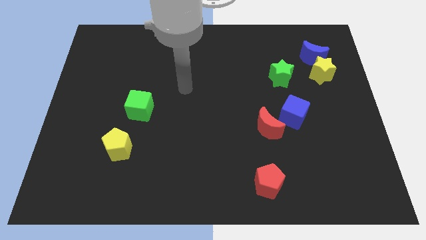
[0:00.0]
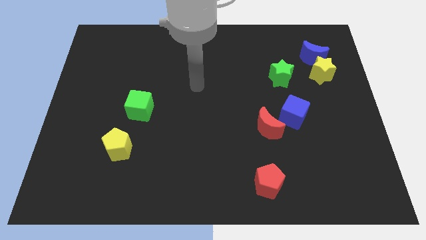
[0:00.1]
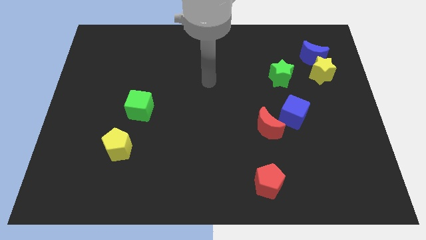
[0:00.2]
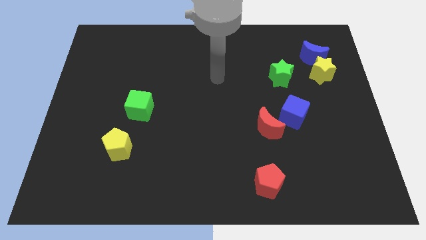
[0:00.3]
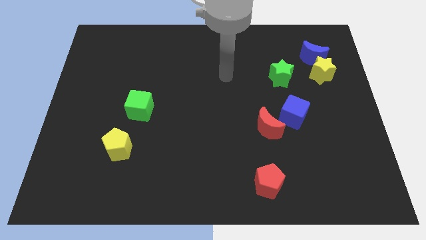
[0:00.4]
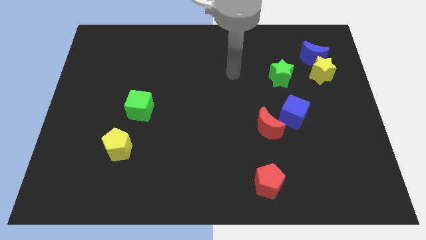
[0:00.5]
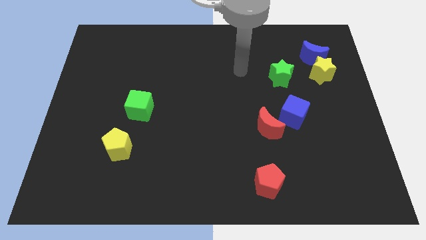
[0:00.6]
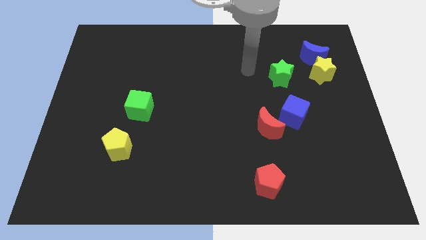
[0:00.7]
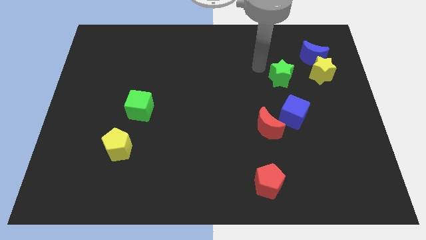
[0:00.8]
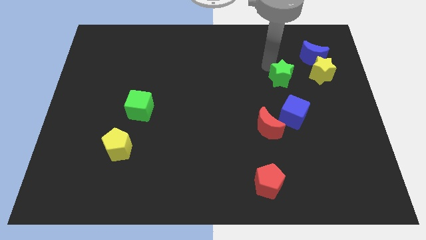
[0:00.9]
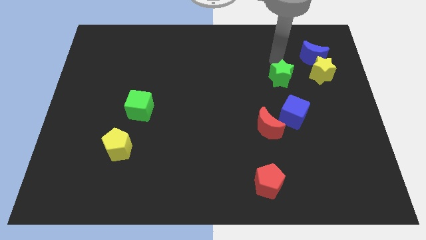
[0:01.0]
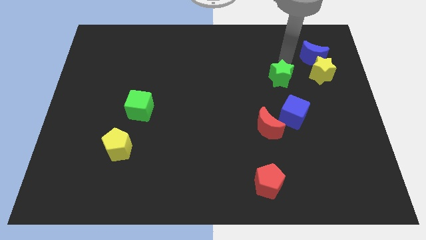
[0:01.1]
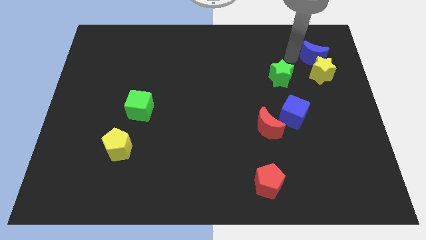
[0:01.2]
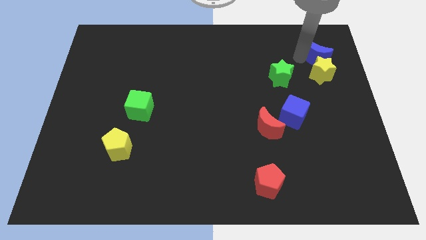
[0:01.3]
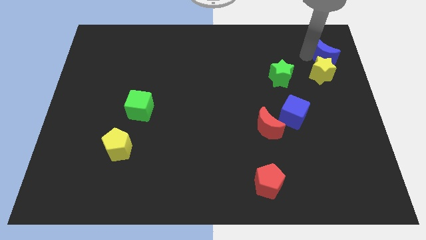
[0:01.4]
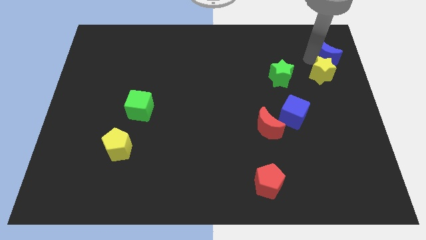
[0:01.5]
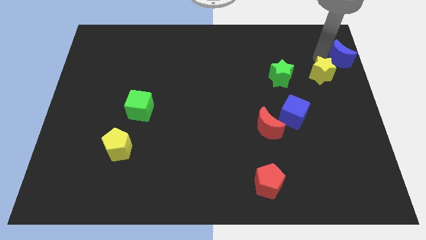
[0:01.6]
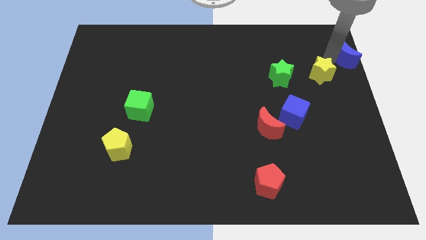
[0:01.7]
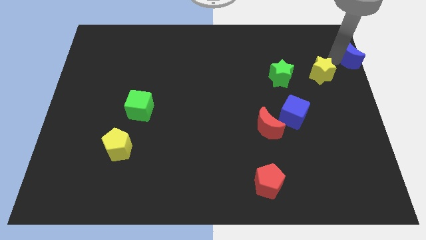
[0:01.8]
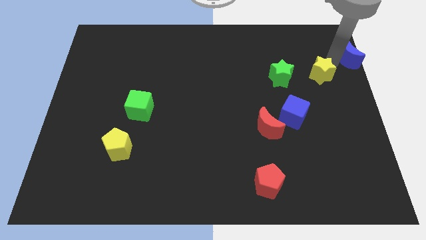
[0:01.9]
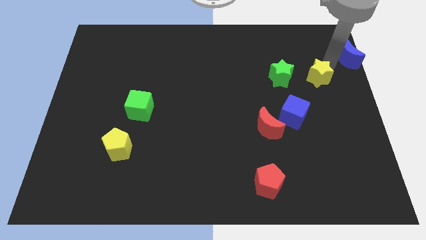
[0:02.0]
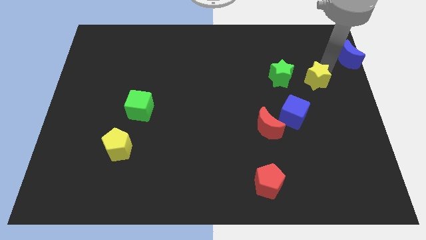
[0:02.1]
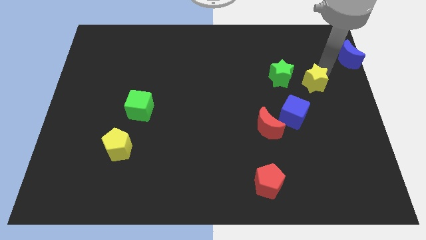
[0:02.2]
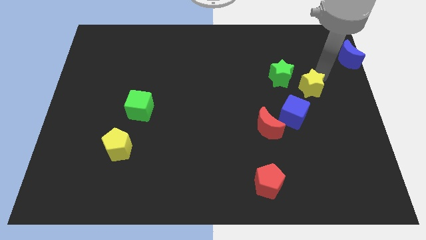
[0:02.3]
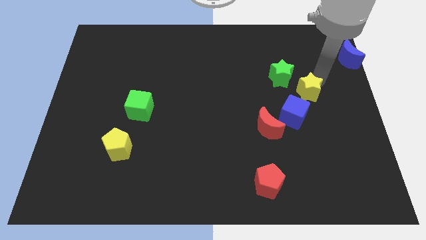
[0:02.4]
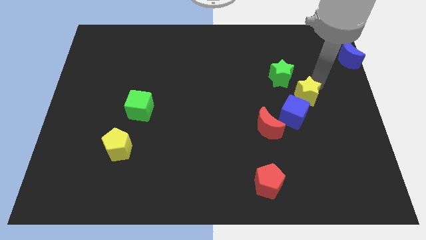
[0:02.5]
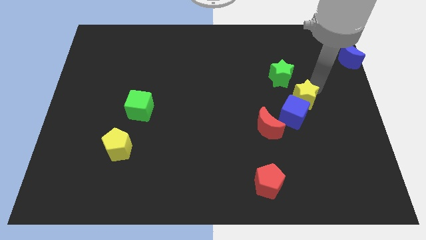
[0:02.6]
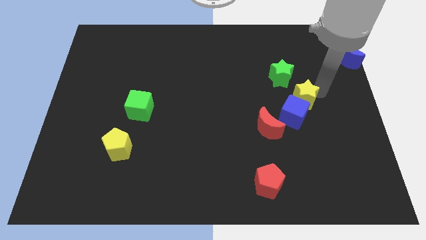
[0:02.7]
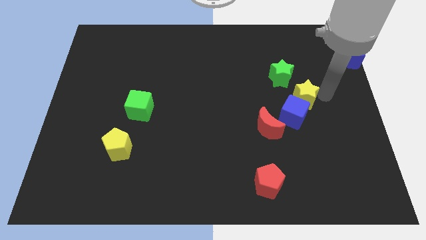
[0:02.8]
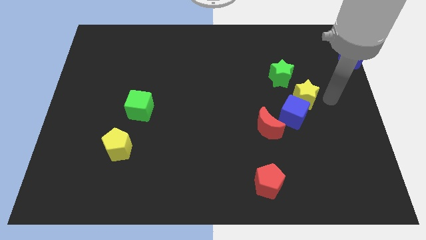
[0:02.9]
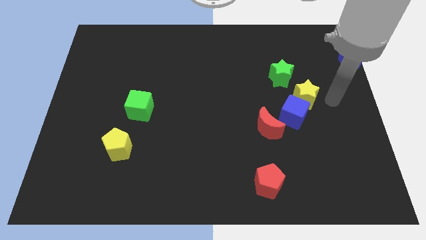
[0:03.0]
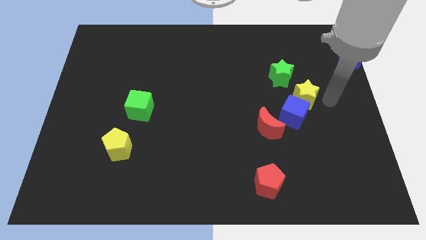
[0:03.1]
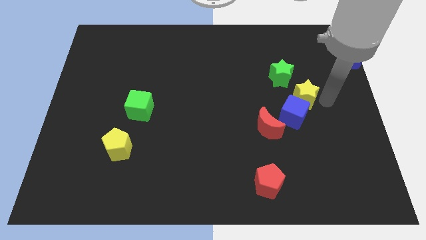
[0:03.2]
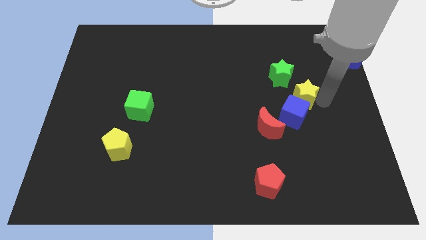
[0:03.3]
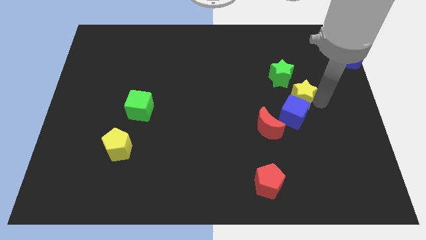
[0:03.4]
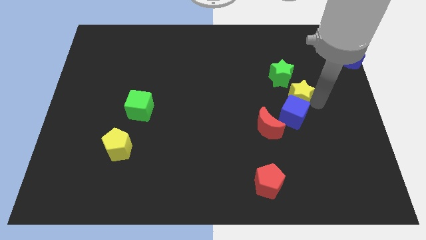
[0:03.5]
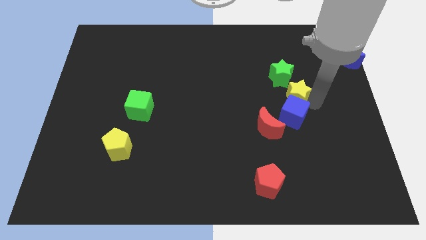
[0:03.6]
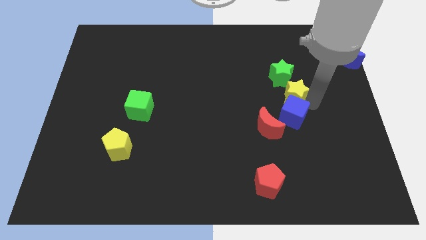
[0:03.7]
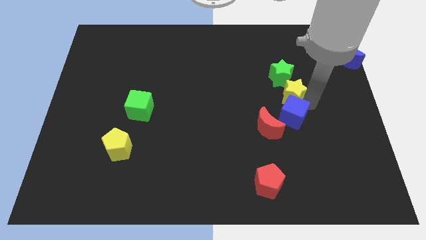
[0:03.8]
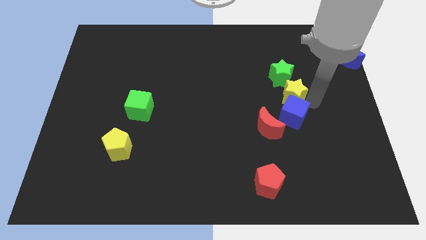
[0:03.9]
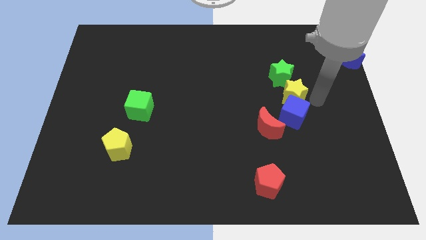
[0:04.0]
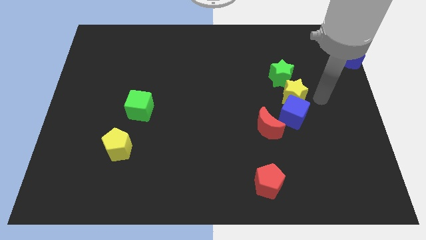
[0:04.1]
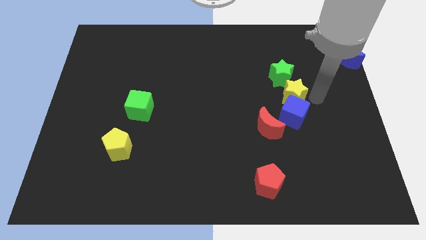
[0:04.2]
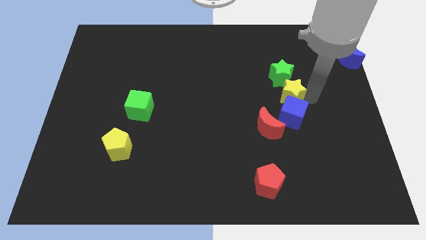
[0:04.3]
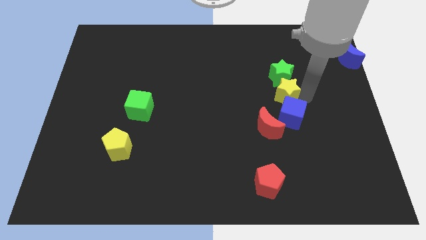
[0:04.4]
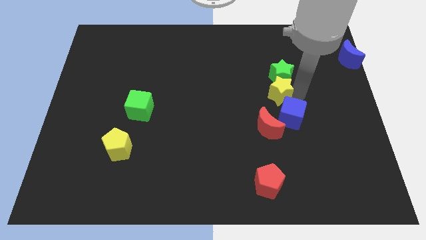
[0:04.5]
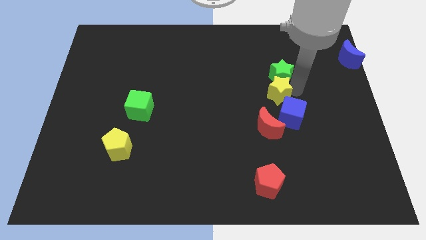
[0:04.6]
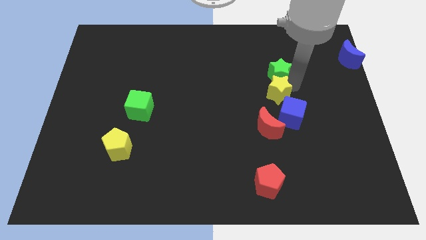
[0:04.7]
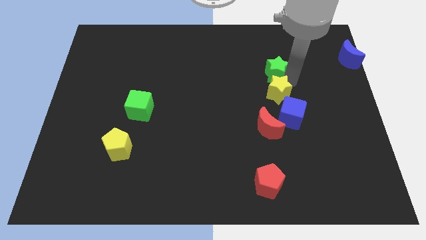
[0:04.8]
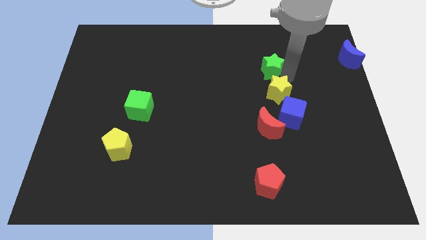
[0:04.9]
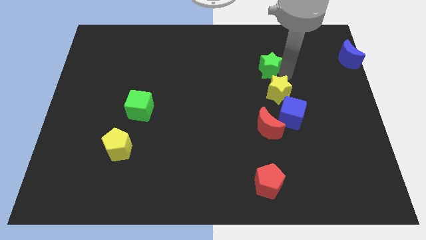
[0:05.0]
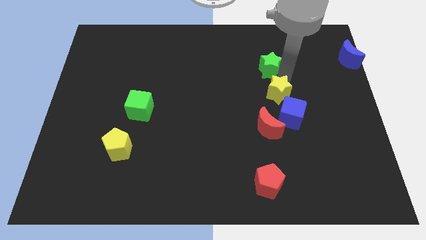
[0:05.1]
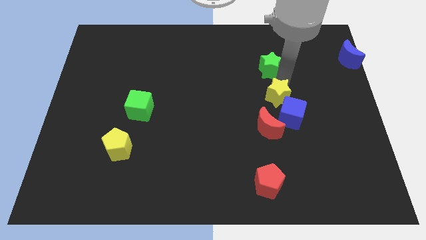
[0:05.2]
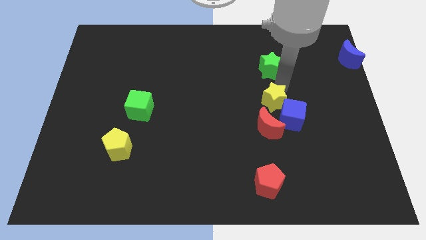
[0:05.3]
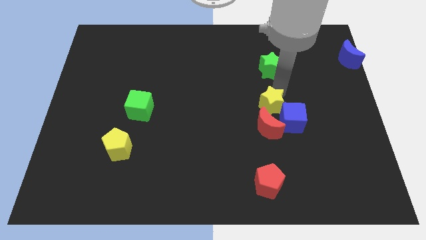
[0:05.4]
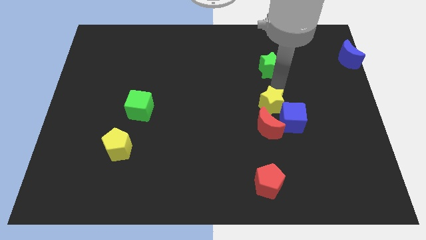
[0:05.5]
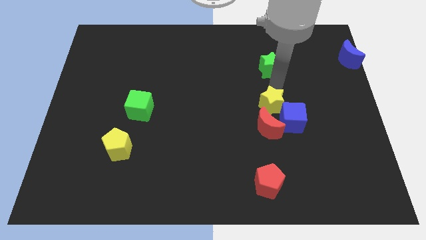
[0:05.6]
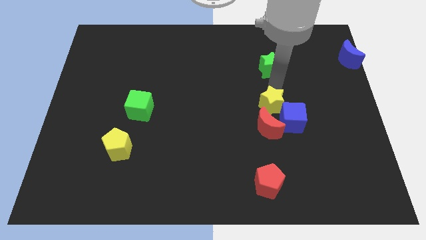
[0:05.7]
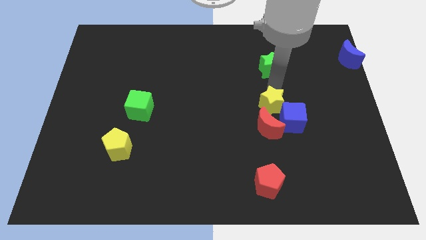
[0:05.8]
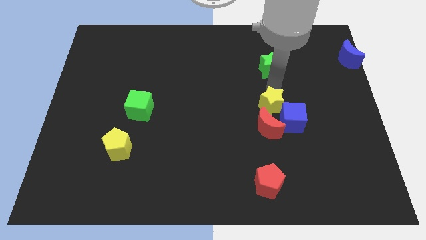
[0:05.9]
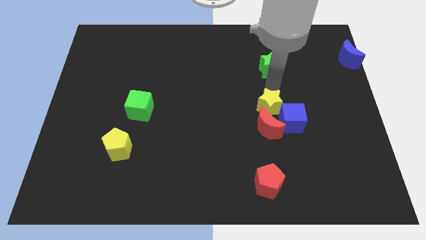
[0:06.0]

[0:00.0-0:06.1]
move the yellow star towards the red moon

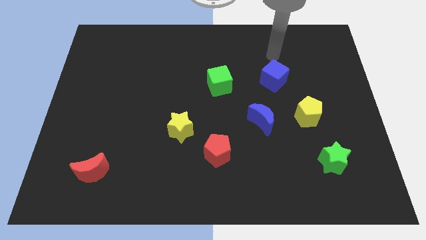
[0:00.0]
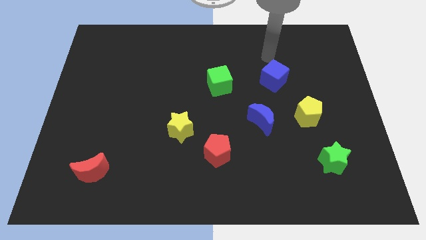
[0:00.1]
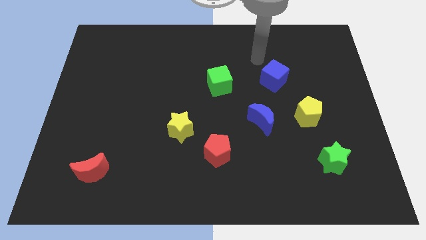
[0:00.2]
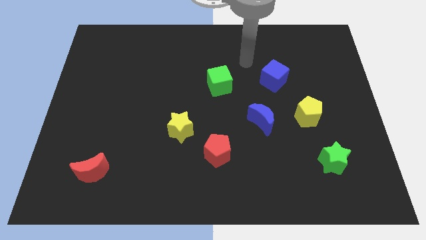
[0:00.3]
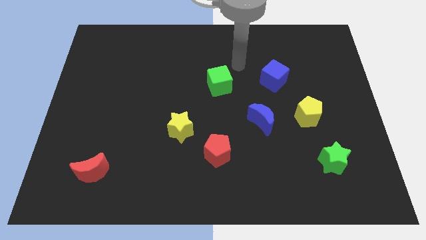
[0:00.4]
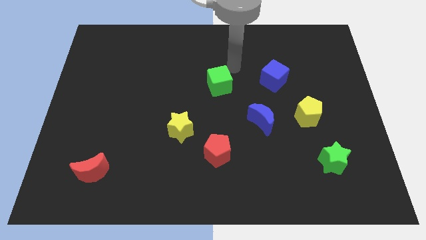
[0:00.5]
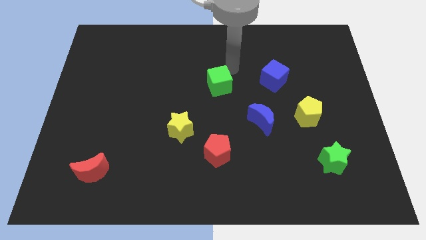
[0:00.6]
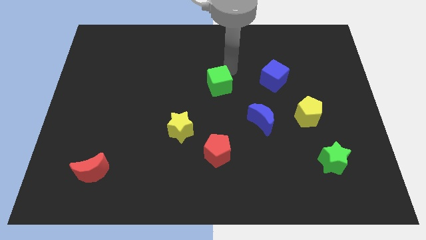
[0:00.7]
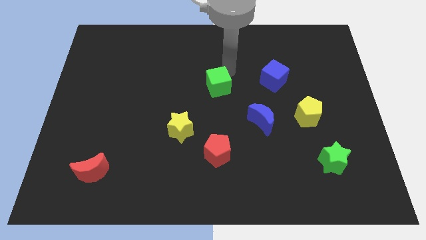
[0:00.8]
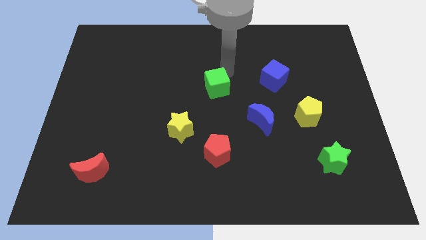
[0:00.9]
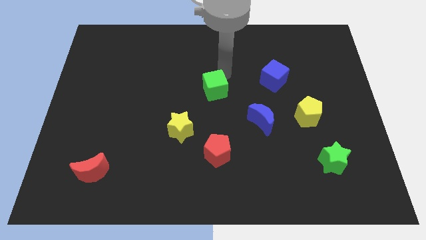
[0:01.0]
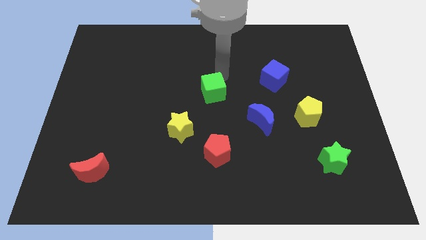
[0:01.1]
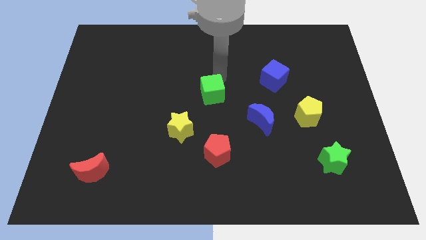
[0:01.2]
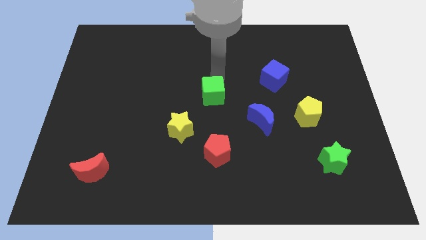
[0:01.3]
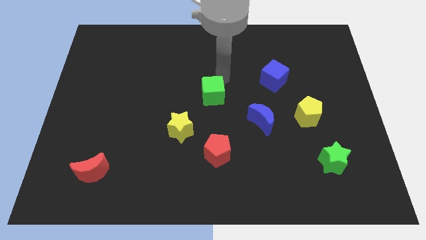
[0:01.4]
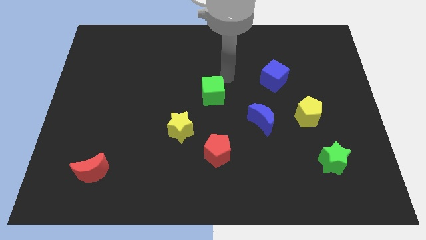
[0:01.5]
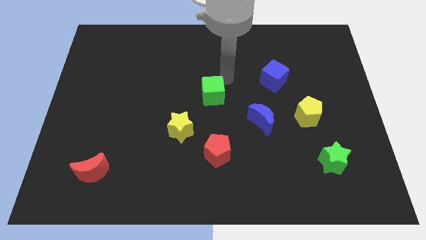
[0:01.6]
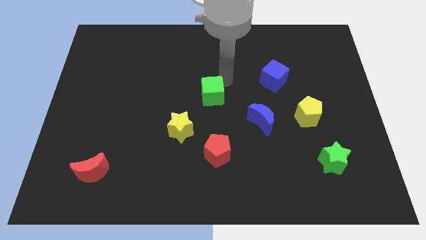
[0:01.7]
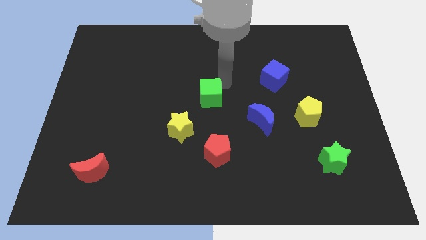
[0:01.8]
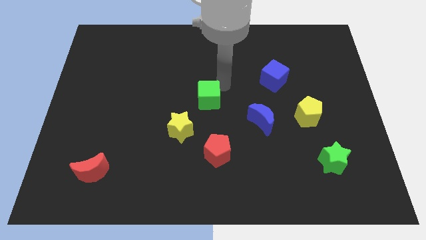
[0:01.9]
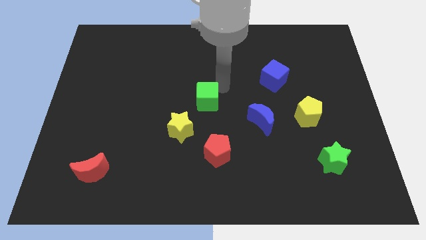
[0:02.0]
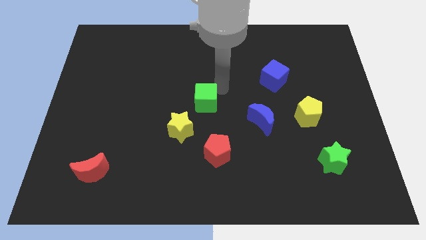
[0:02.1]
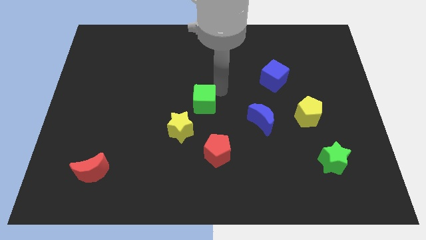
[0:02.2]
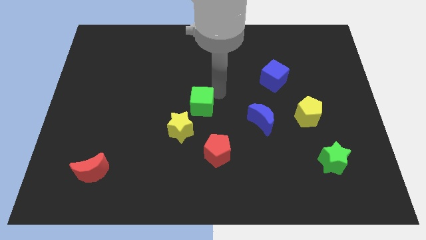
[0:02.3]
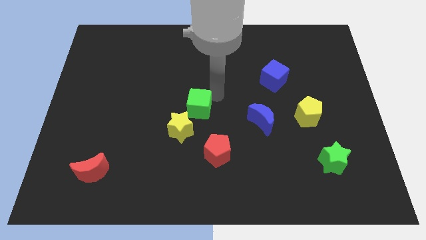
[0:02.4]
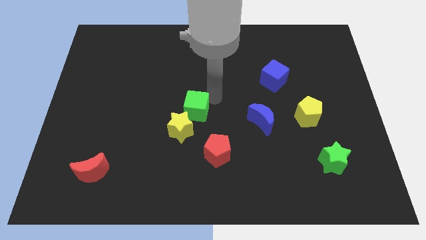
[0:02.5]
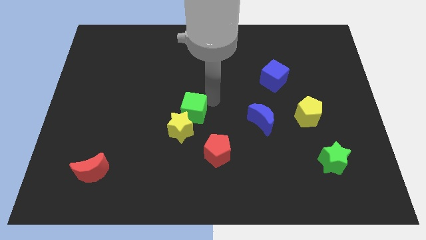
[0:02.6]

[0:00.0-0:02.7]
move the green cube next to the yellow star
